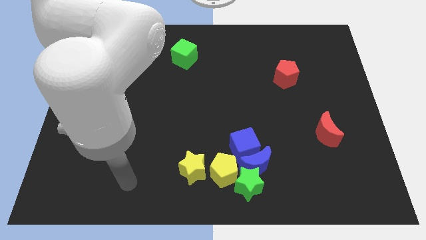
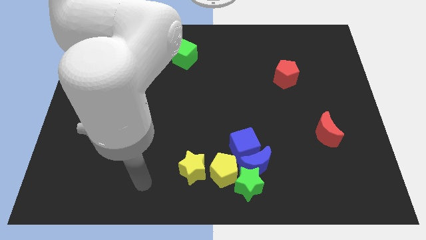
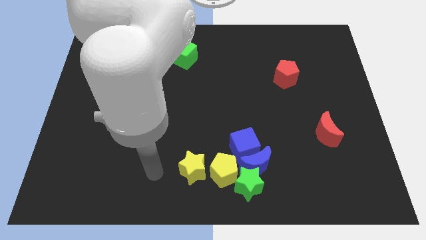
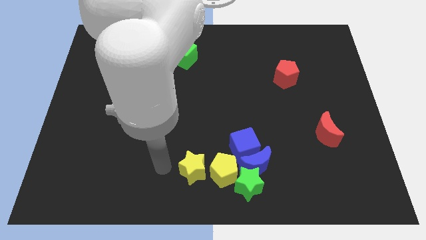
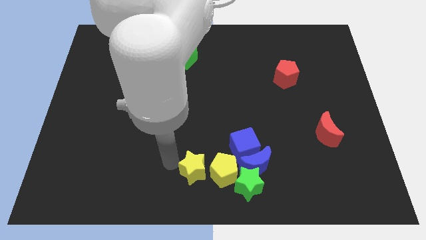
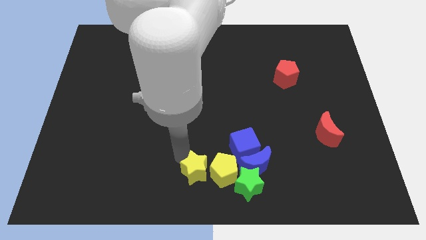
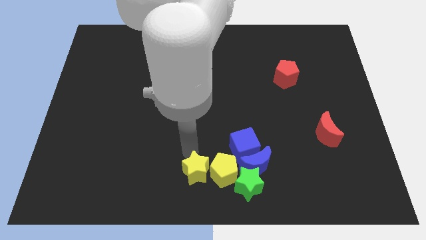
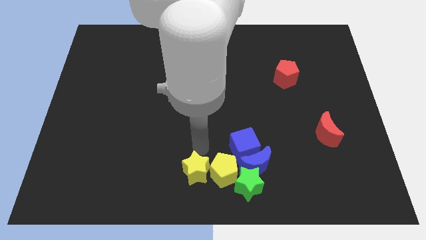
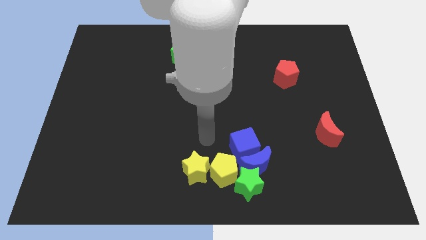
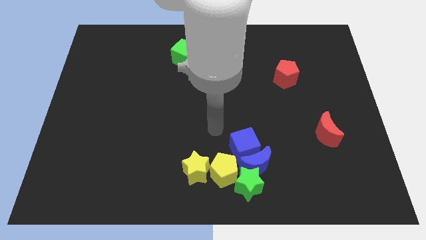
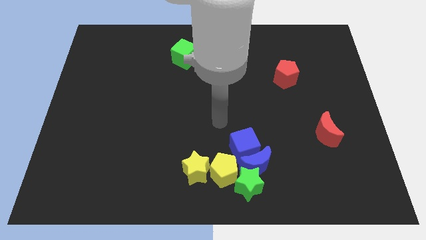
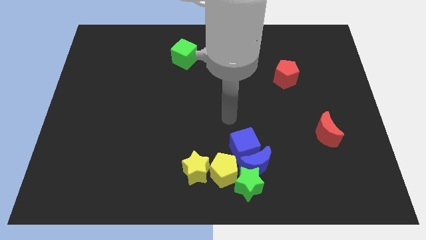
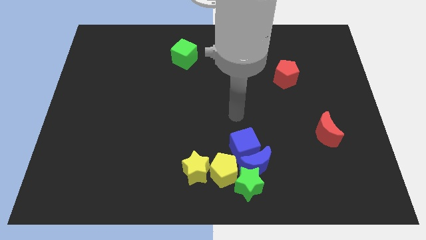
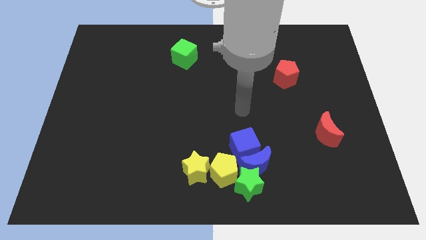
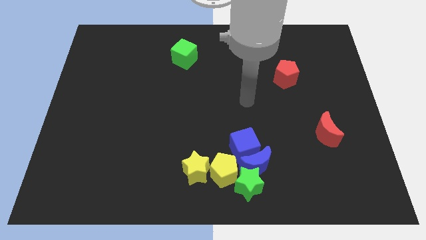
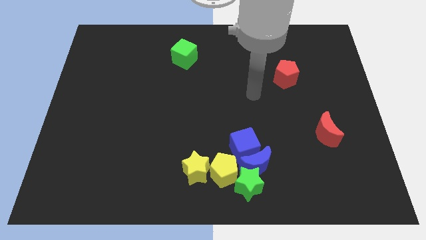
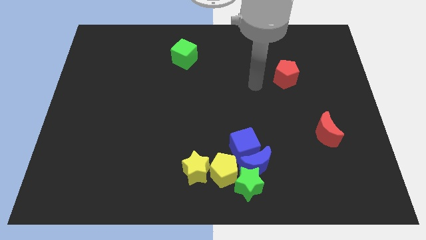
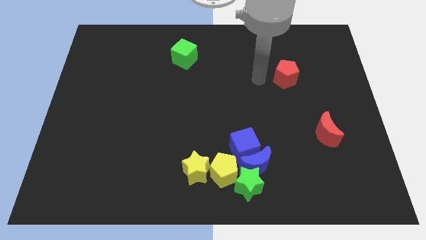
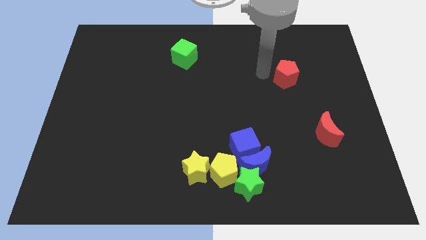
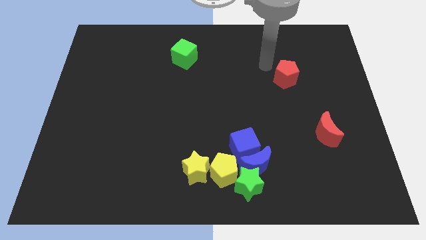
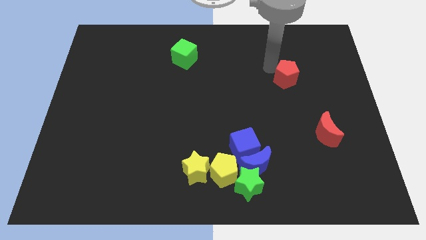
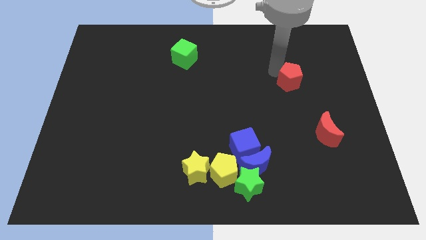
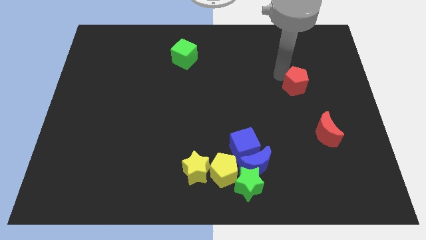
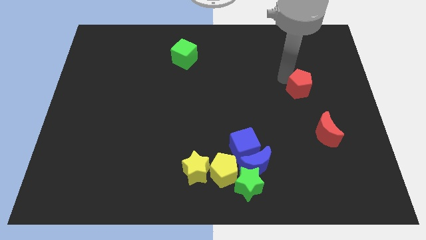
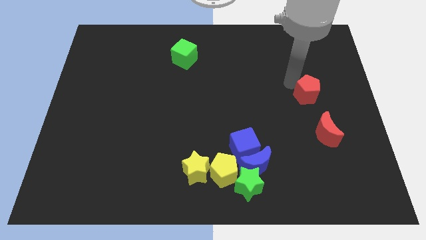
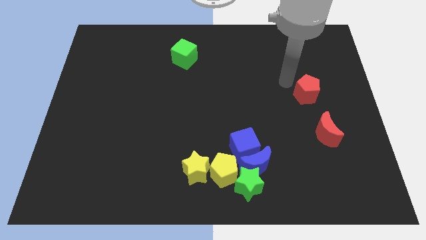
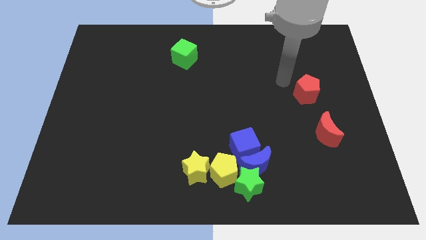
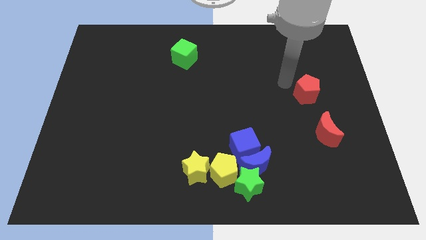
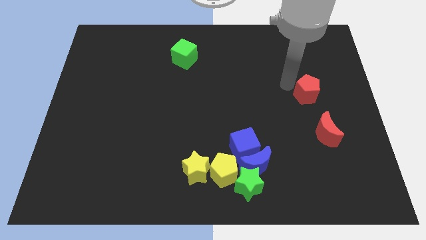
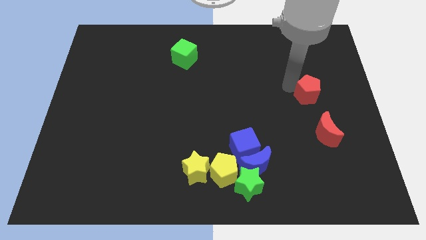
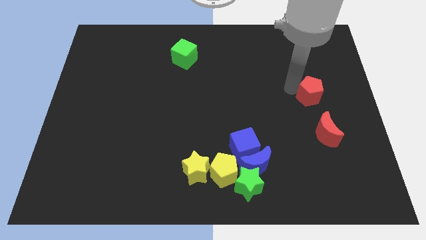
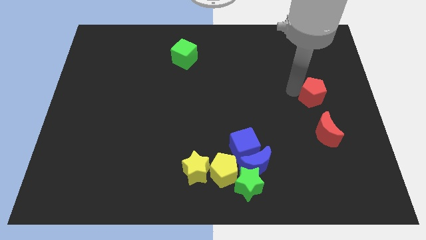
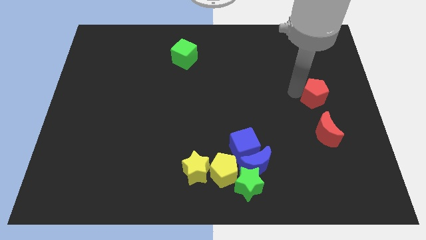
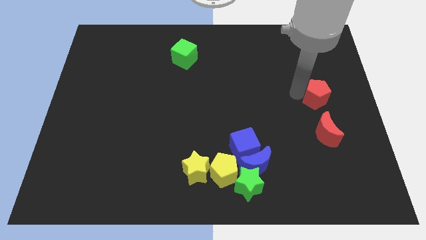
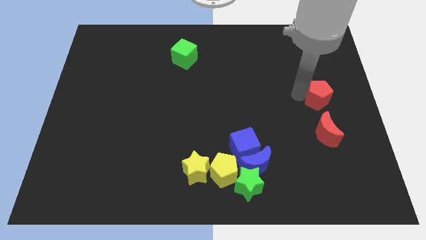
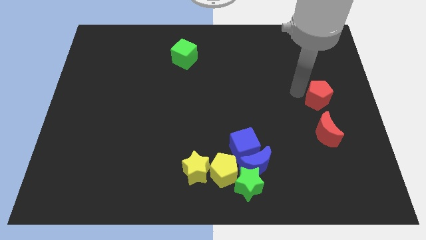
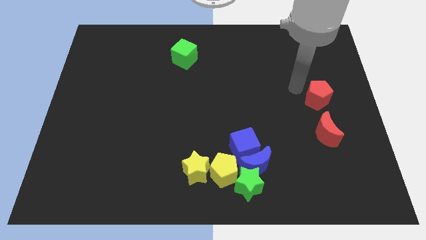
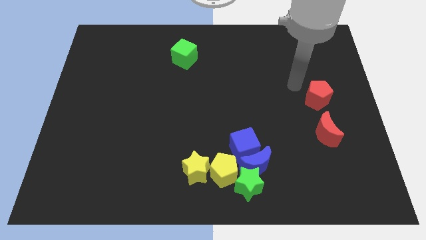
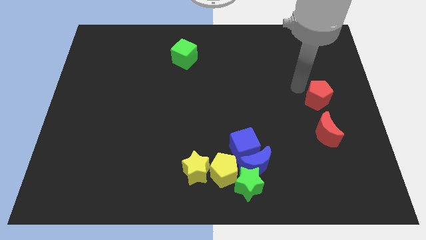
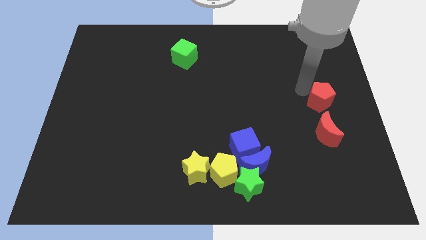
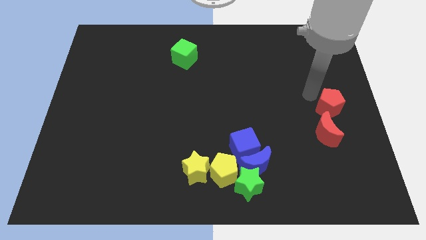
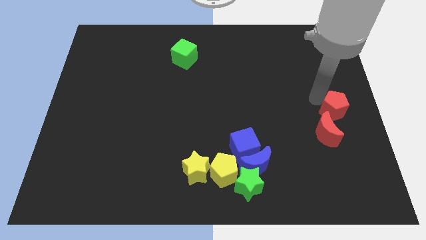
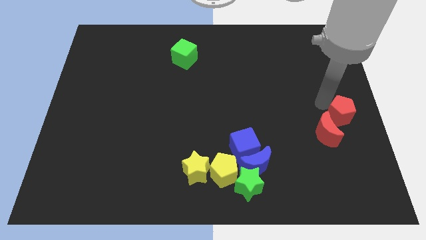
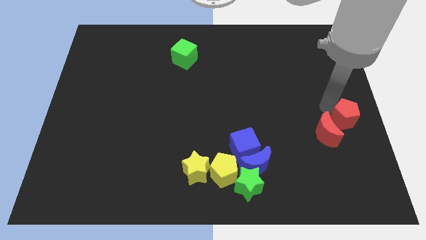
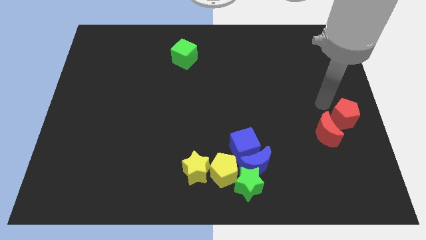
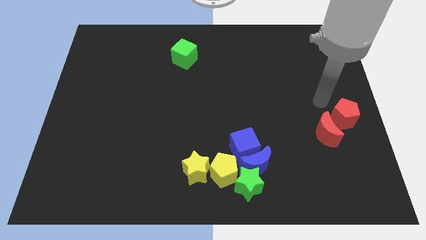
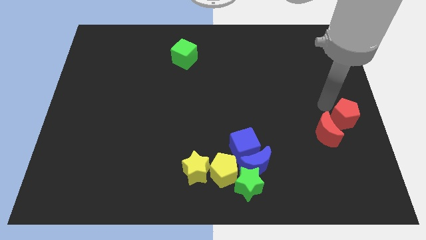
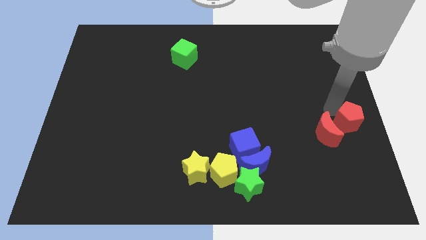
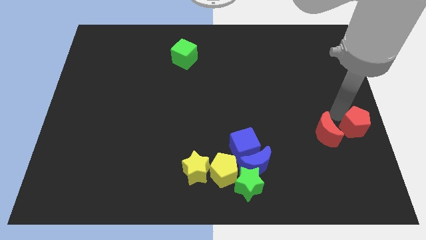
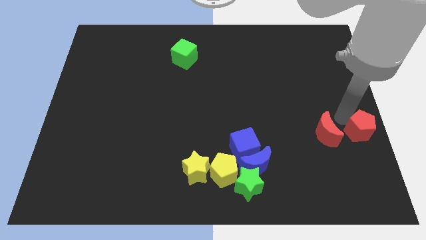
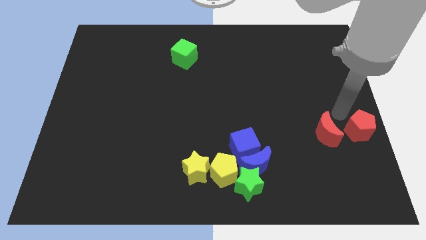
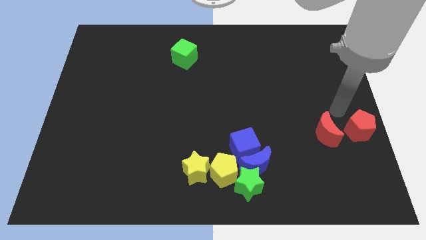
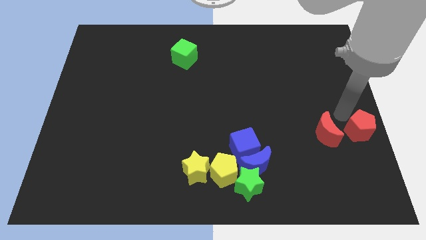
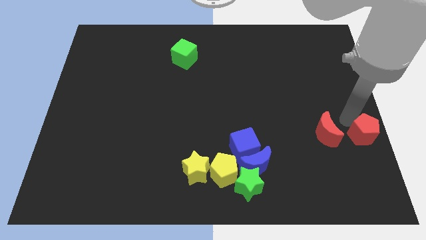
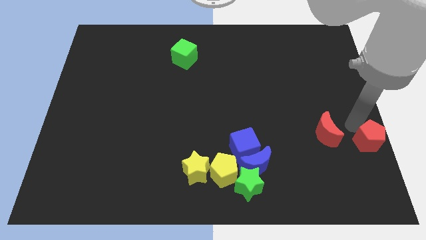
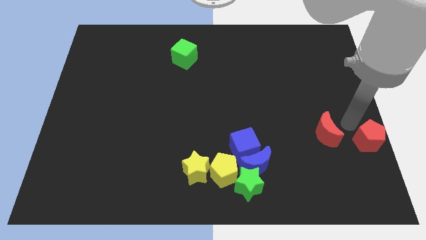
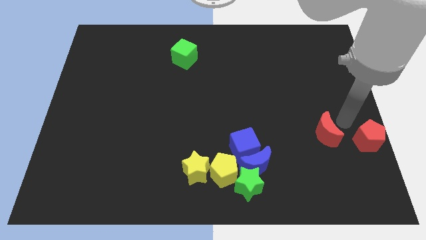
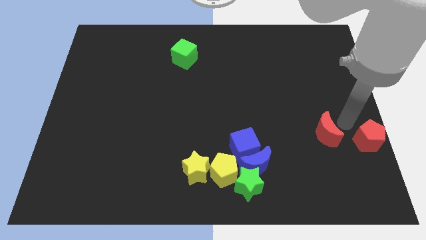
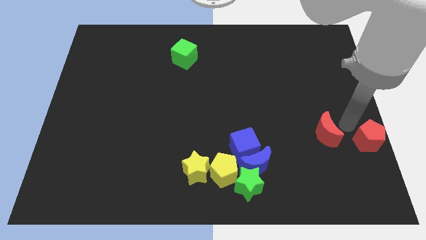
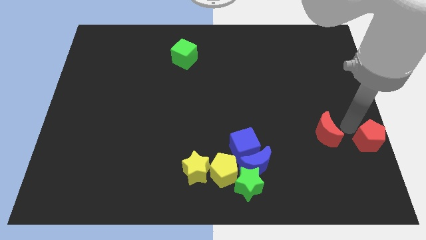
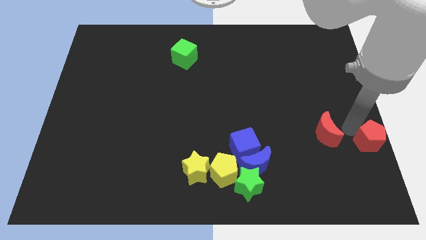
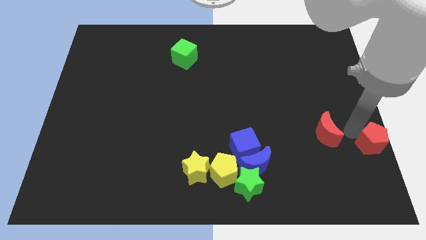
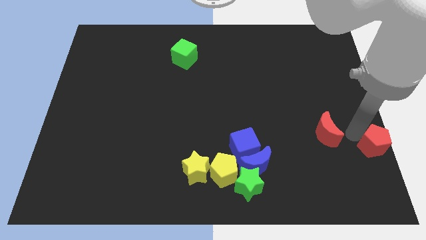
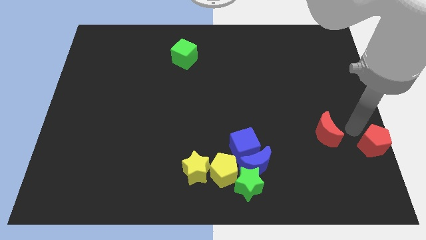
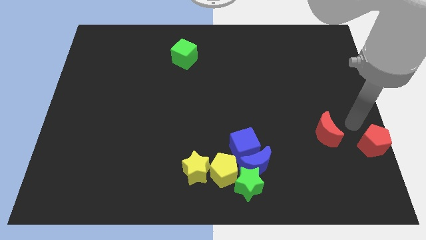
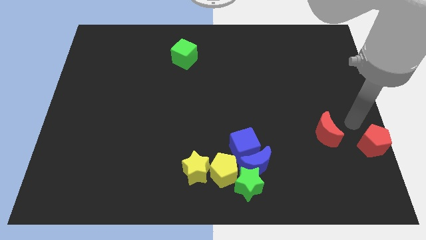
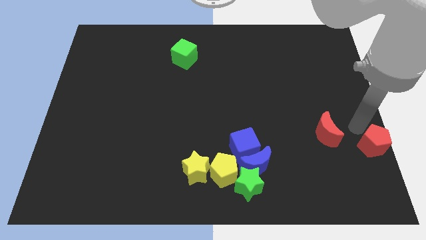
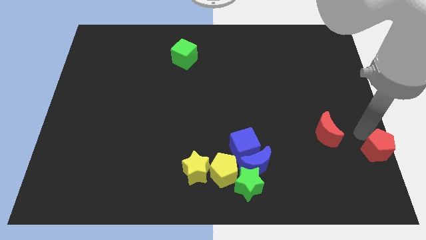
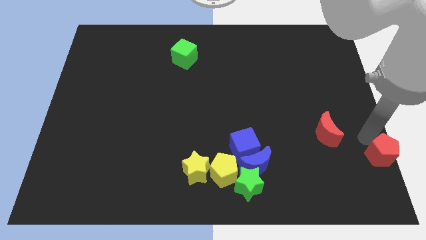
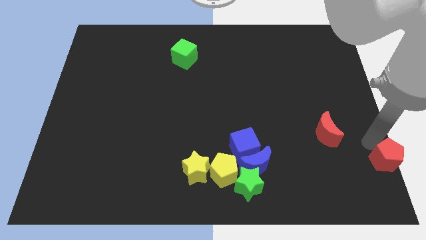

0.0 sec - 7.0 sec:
slide the red pentagon to the lower right corner
